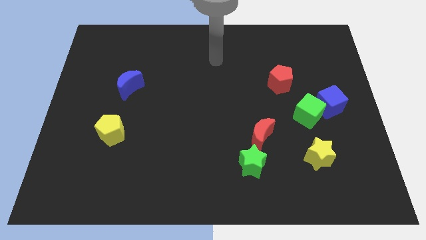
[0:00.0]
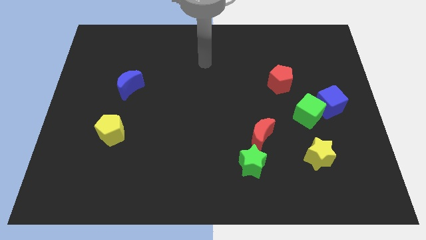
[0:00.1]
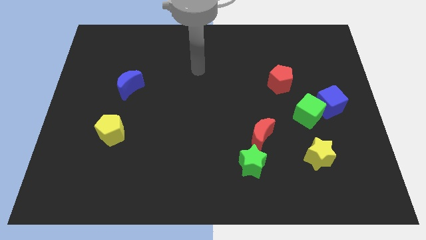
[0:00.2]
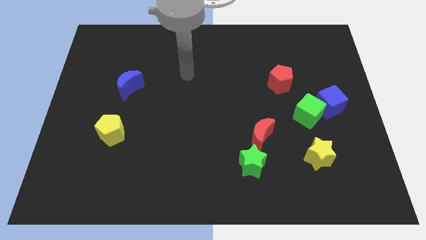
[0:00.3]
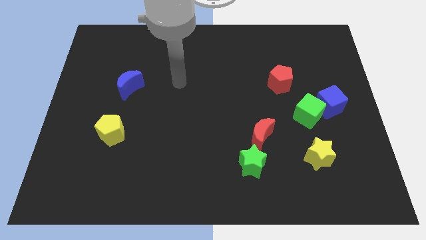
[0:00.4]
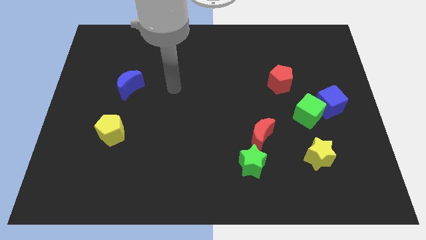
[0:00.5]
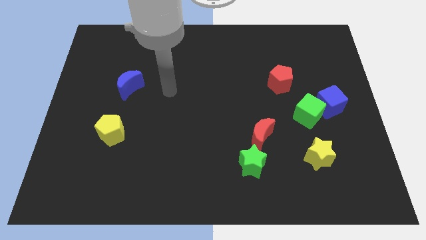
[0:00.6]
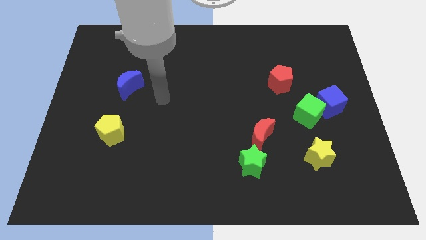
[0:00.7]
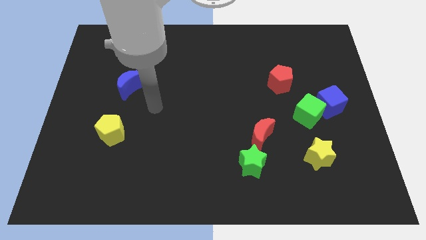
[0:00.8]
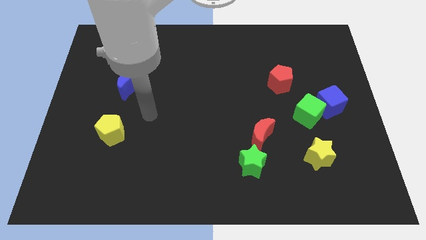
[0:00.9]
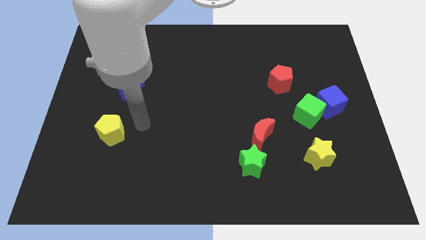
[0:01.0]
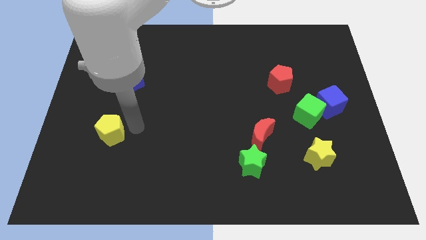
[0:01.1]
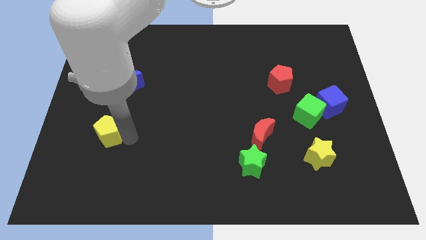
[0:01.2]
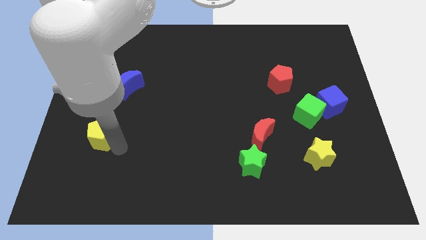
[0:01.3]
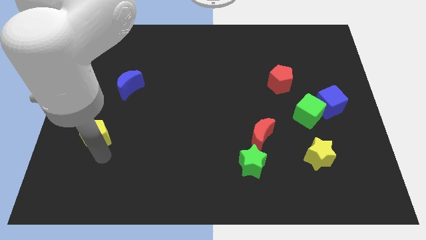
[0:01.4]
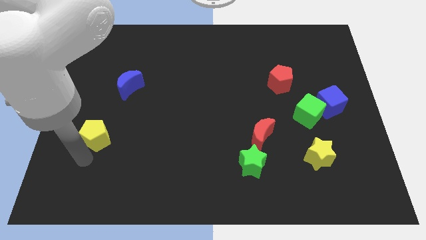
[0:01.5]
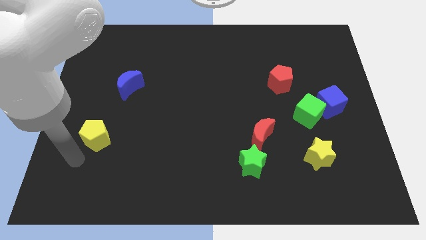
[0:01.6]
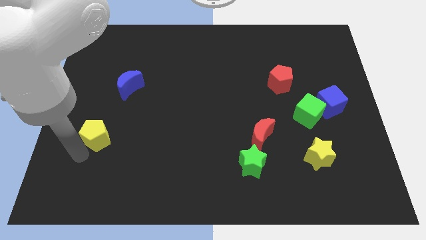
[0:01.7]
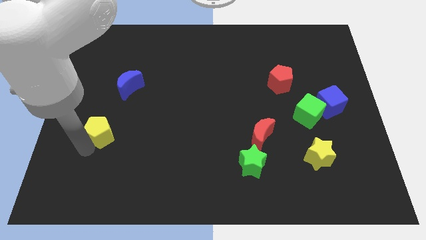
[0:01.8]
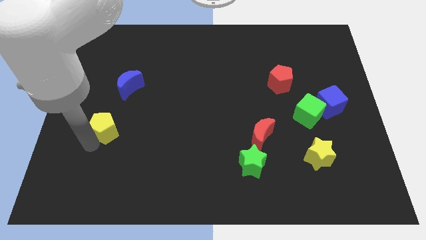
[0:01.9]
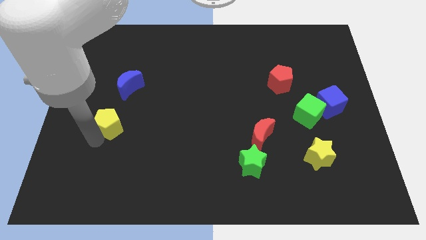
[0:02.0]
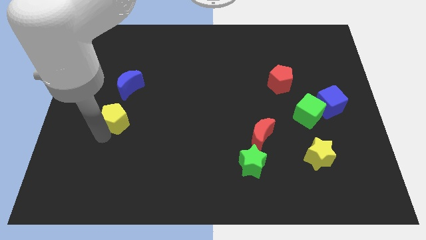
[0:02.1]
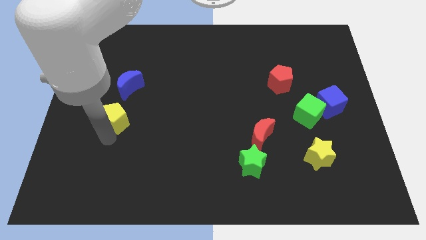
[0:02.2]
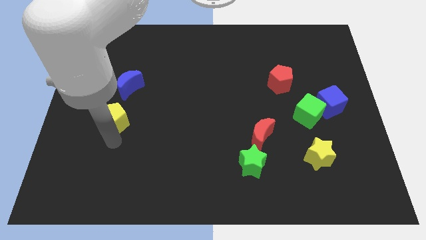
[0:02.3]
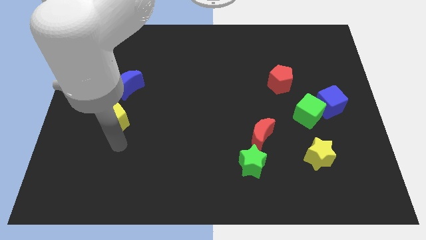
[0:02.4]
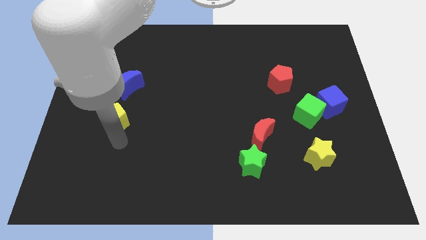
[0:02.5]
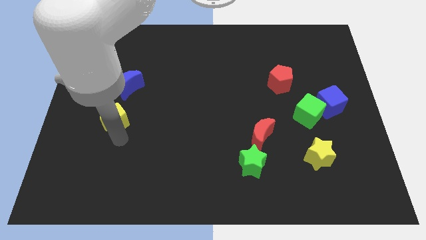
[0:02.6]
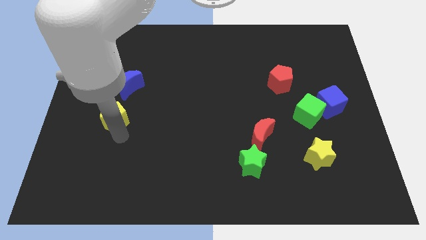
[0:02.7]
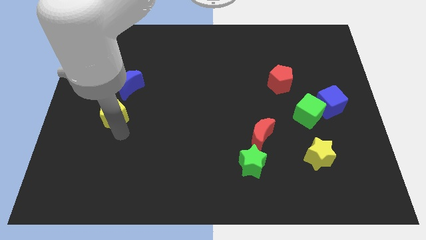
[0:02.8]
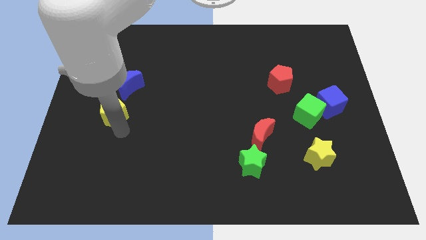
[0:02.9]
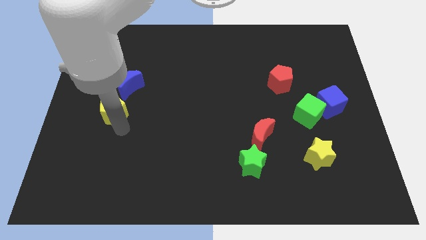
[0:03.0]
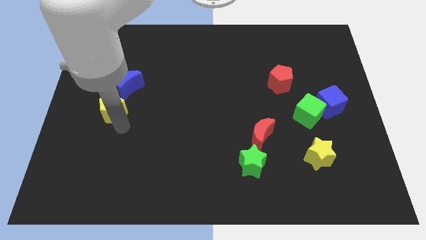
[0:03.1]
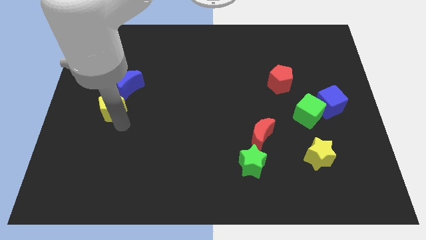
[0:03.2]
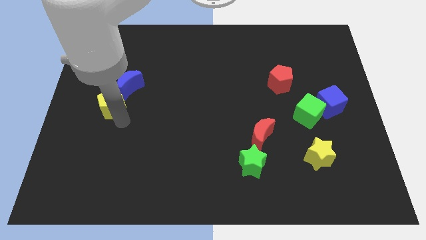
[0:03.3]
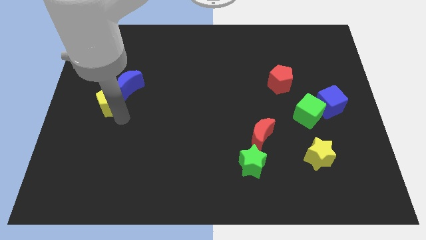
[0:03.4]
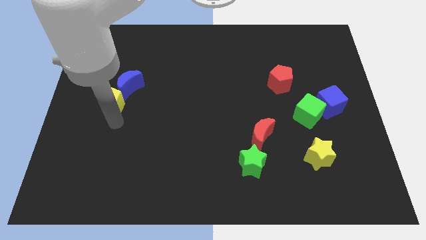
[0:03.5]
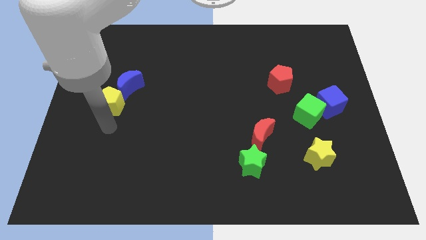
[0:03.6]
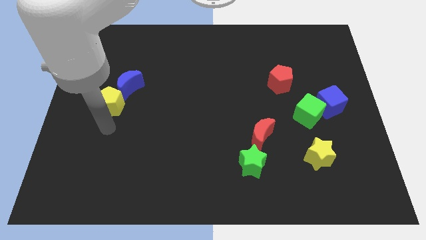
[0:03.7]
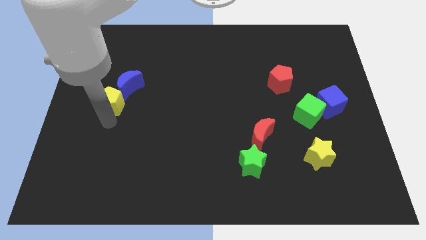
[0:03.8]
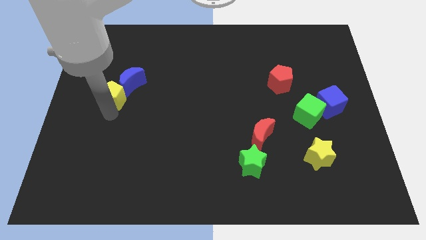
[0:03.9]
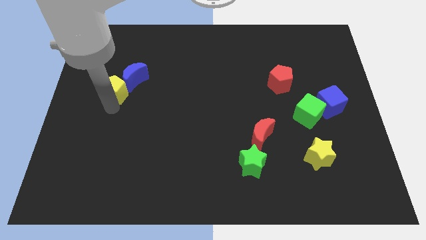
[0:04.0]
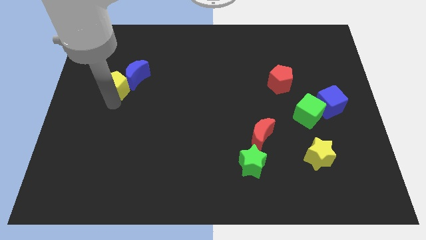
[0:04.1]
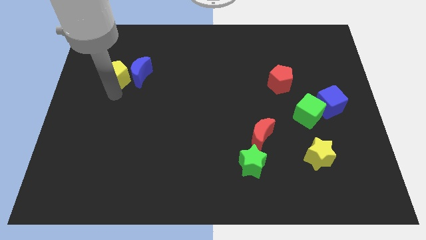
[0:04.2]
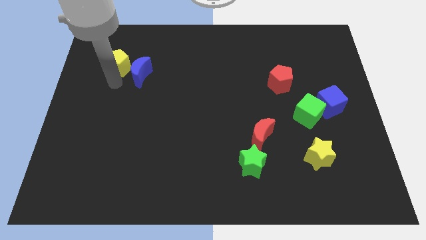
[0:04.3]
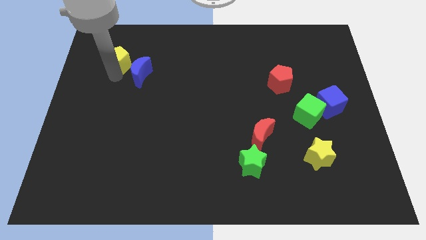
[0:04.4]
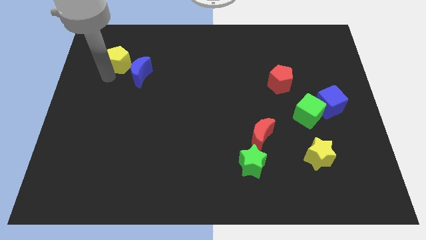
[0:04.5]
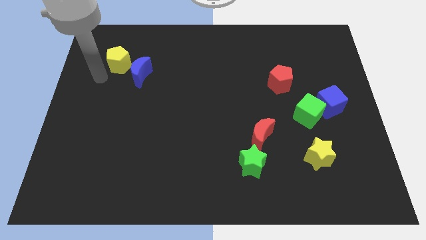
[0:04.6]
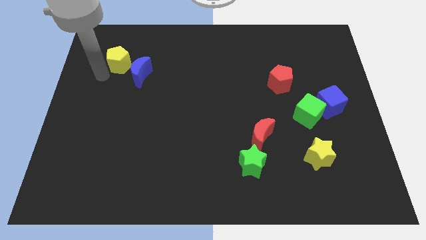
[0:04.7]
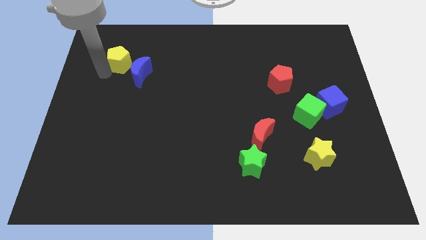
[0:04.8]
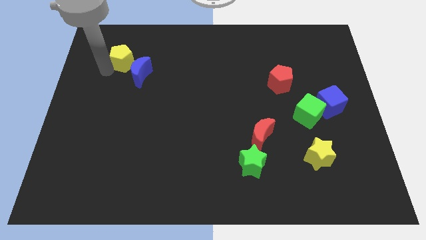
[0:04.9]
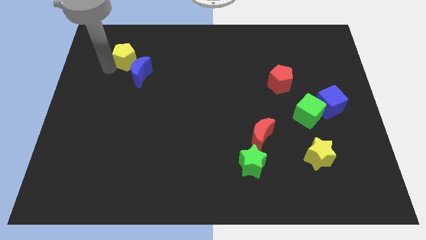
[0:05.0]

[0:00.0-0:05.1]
put the yellow pentagon to the top side of the blue moon

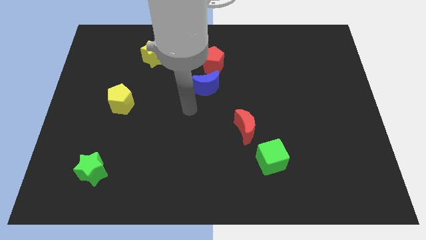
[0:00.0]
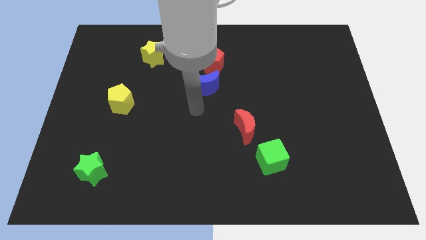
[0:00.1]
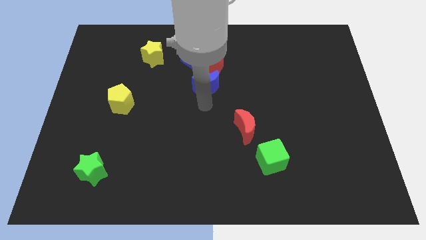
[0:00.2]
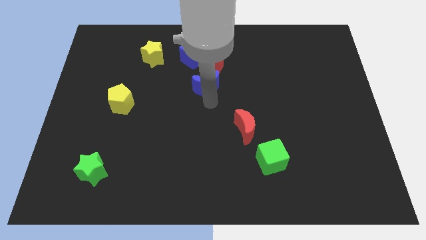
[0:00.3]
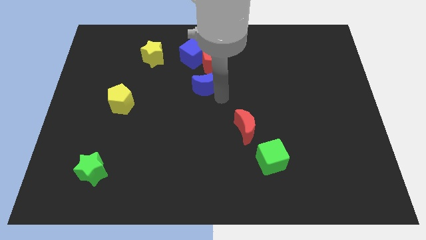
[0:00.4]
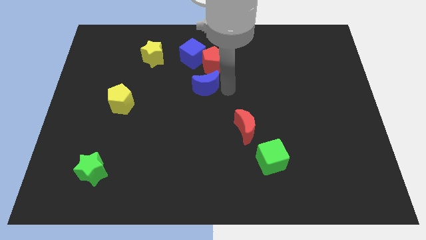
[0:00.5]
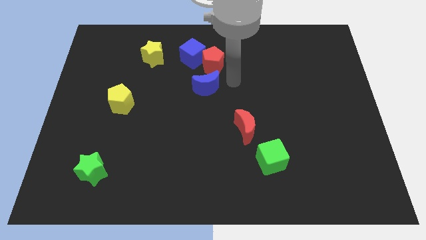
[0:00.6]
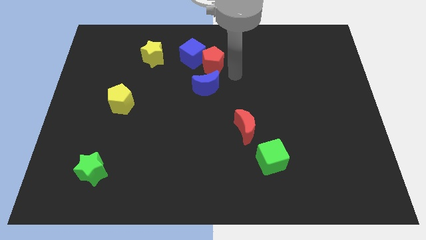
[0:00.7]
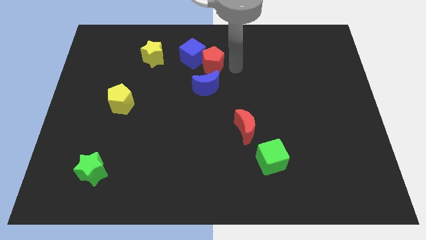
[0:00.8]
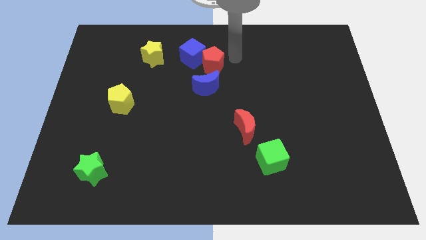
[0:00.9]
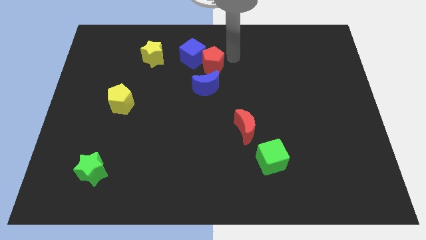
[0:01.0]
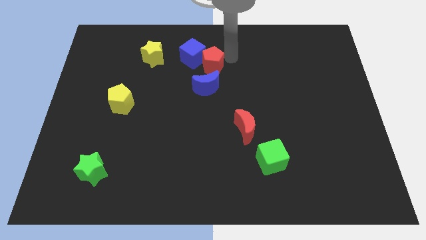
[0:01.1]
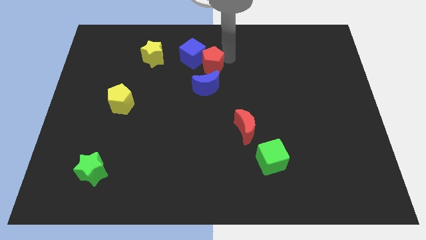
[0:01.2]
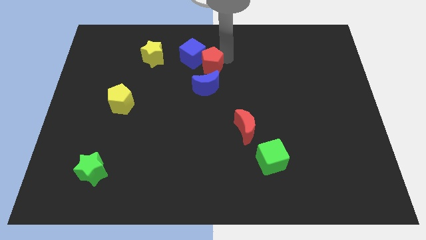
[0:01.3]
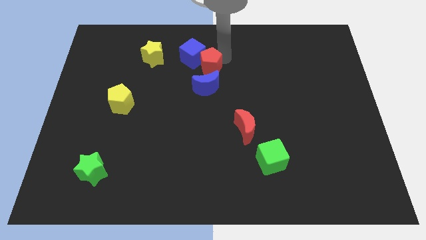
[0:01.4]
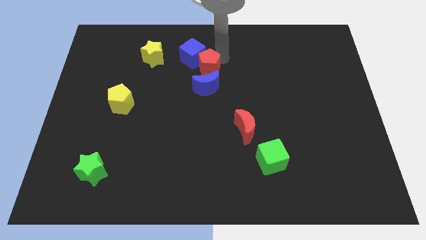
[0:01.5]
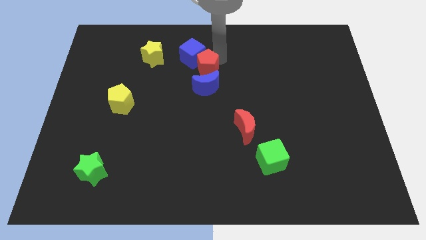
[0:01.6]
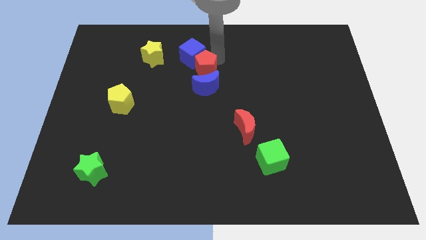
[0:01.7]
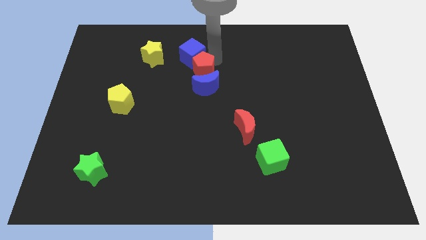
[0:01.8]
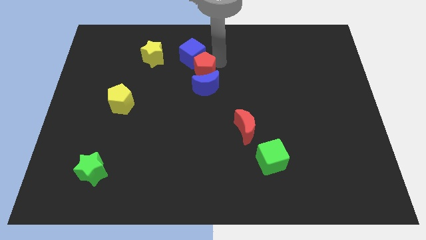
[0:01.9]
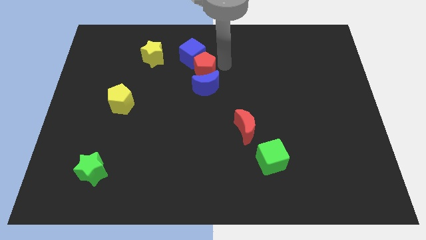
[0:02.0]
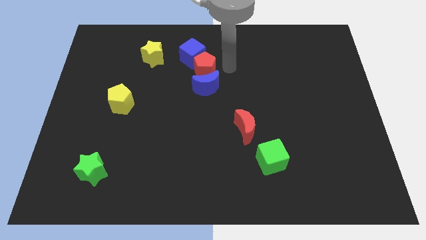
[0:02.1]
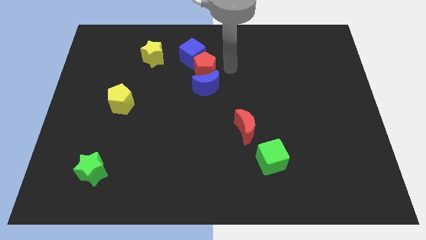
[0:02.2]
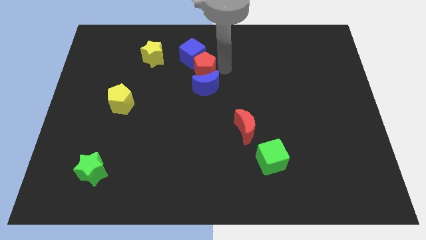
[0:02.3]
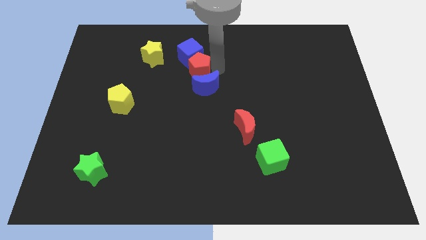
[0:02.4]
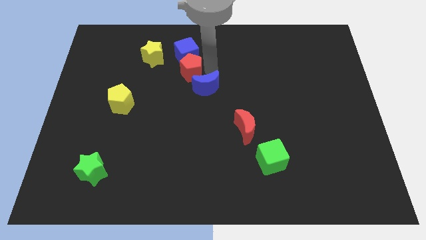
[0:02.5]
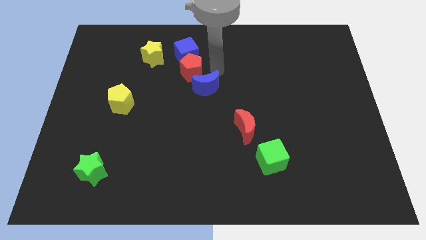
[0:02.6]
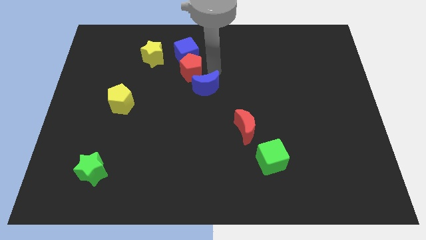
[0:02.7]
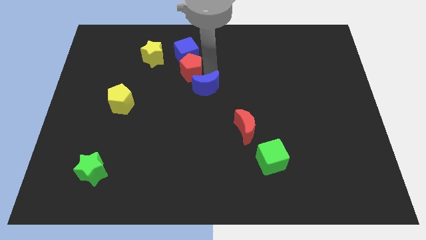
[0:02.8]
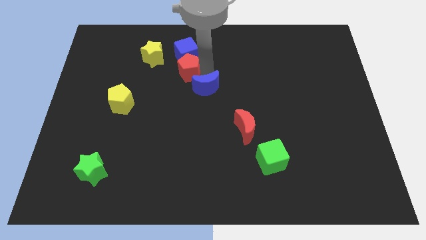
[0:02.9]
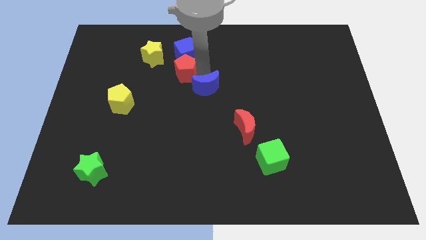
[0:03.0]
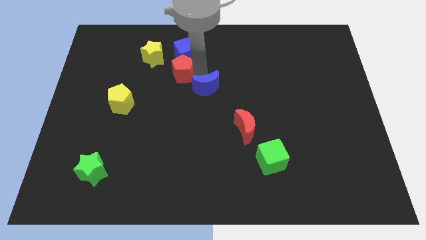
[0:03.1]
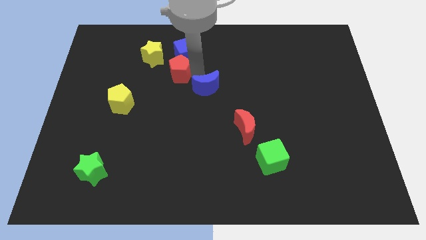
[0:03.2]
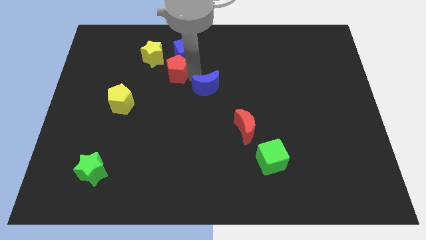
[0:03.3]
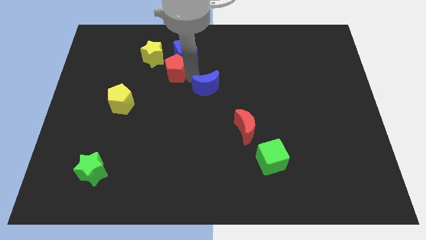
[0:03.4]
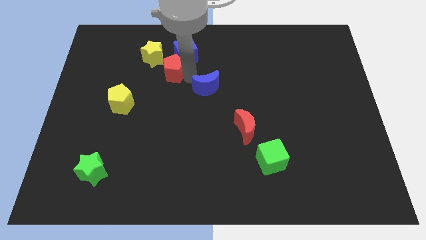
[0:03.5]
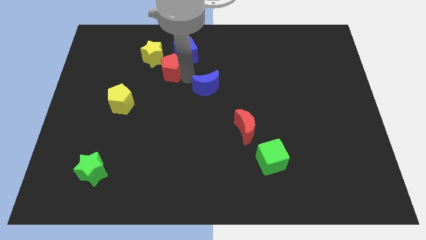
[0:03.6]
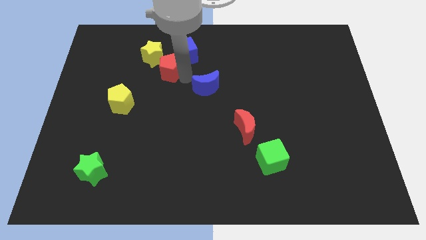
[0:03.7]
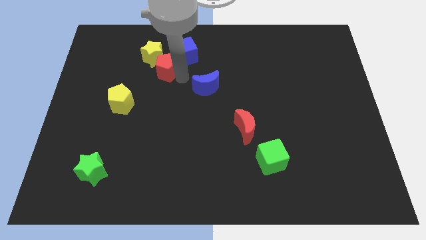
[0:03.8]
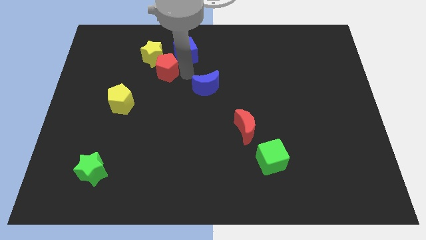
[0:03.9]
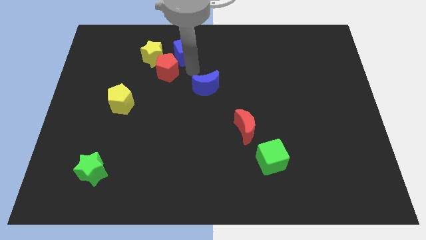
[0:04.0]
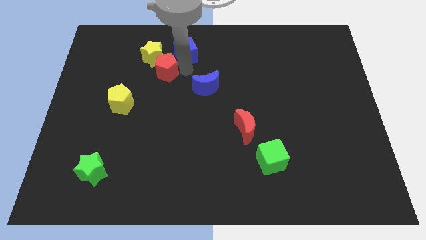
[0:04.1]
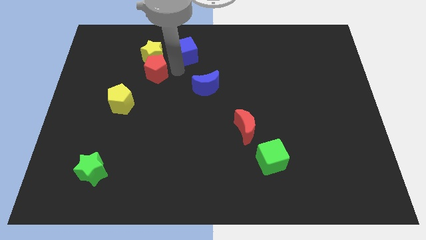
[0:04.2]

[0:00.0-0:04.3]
slide the red pentagon to the bottom left side of the yellow star
